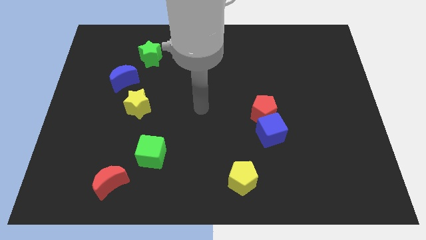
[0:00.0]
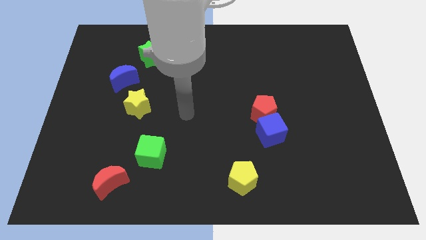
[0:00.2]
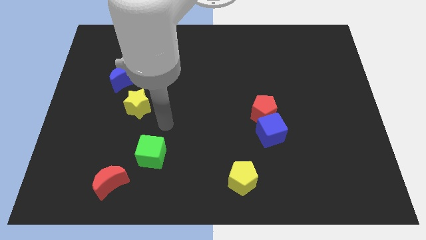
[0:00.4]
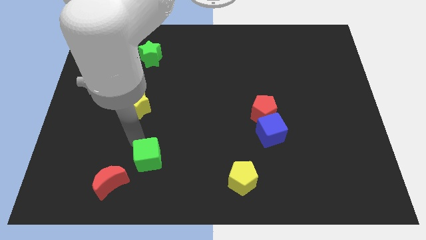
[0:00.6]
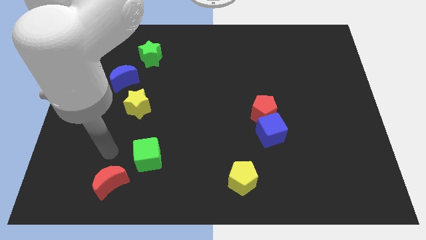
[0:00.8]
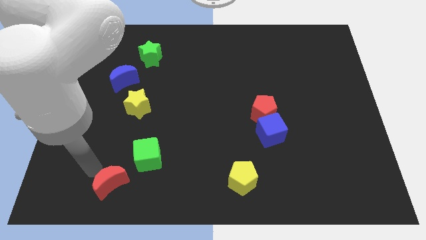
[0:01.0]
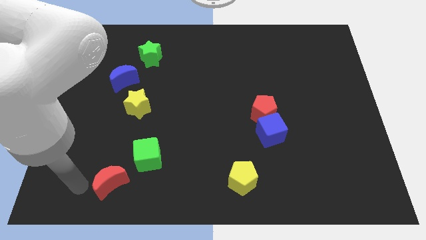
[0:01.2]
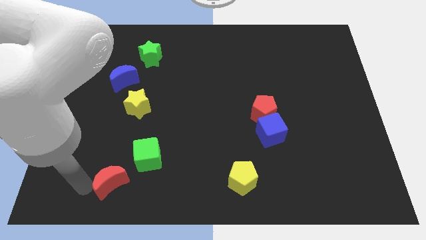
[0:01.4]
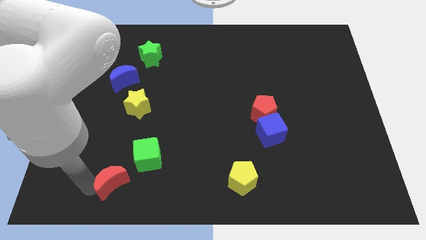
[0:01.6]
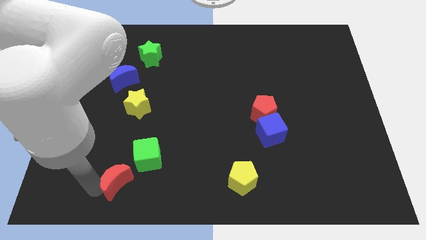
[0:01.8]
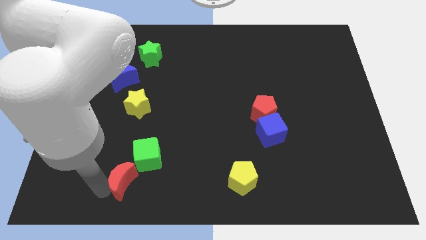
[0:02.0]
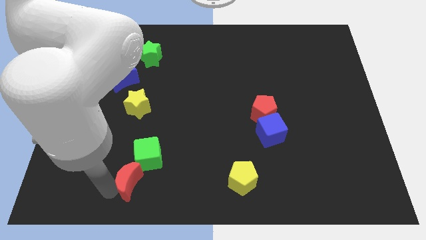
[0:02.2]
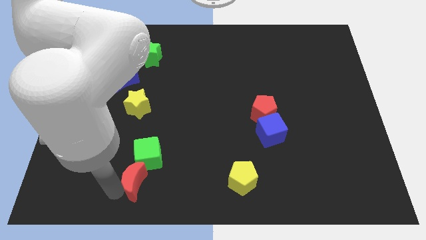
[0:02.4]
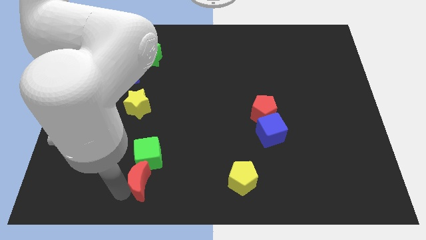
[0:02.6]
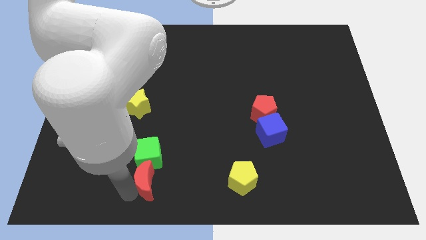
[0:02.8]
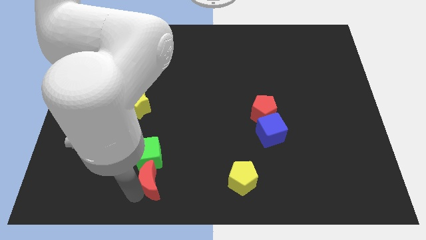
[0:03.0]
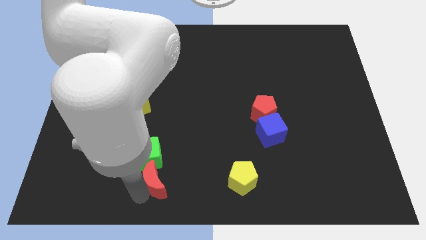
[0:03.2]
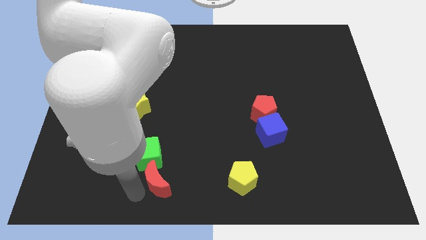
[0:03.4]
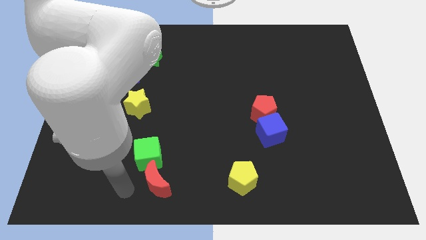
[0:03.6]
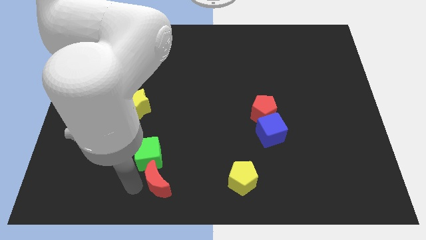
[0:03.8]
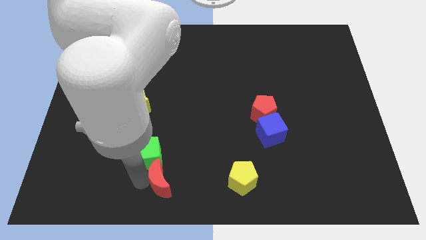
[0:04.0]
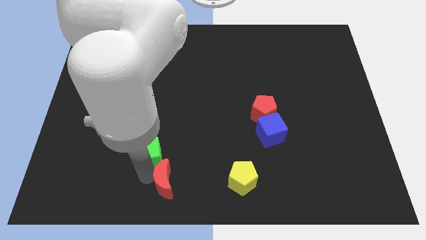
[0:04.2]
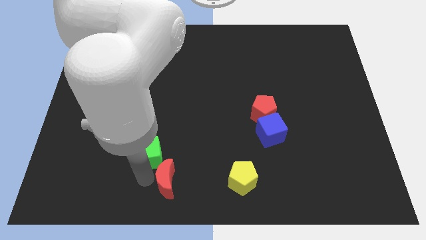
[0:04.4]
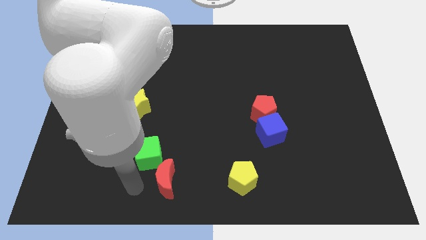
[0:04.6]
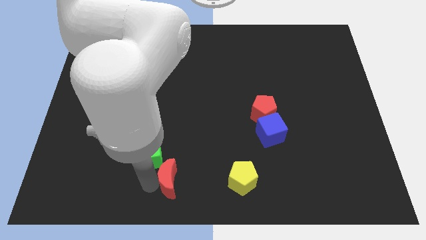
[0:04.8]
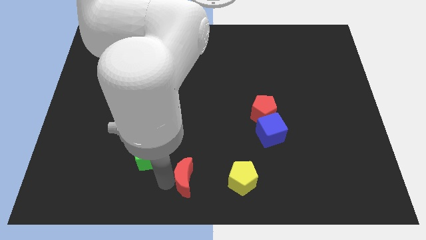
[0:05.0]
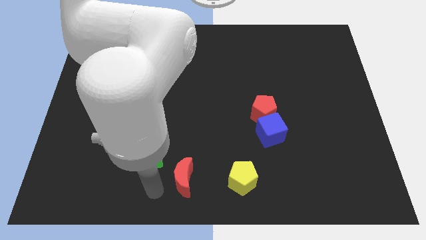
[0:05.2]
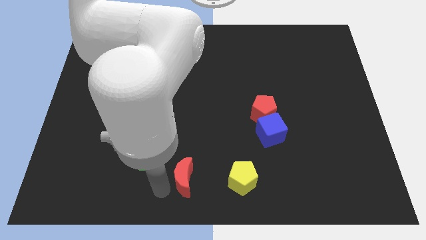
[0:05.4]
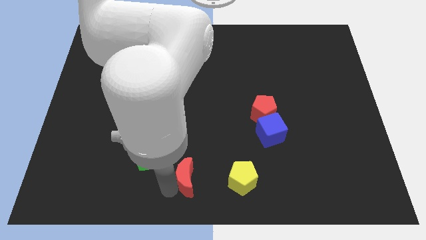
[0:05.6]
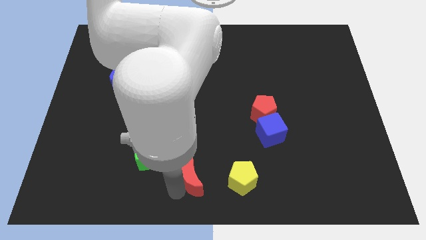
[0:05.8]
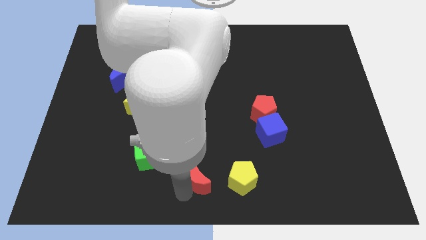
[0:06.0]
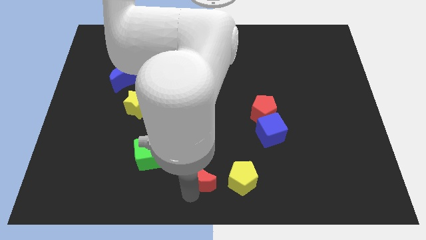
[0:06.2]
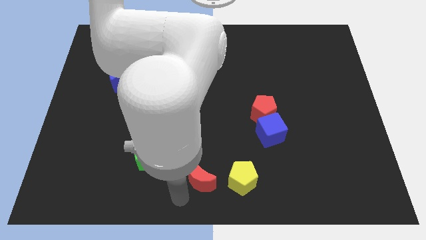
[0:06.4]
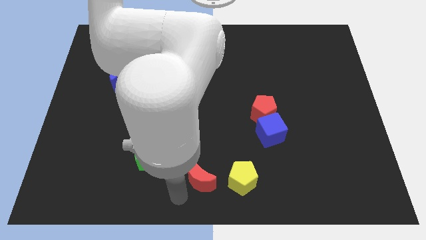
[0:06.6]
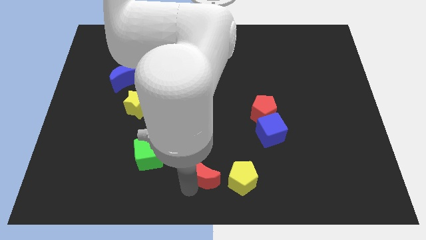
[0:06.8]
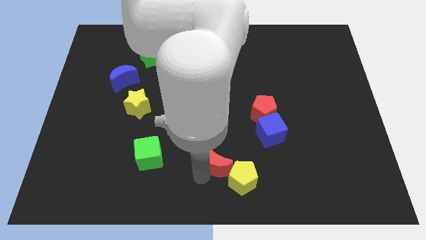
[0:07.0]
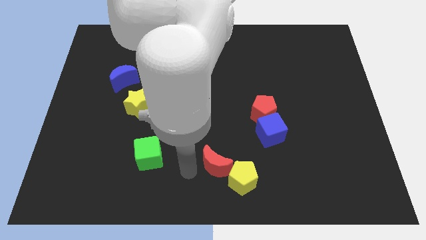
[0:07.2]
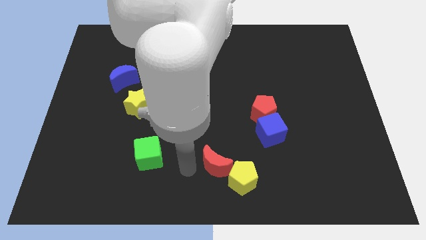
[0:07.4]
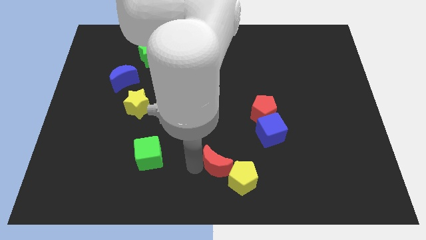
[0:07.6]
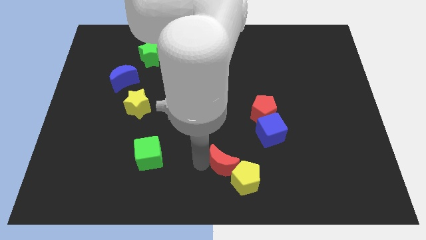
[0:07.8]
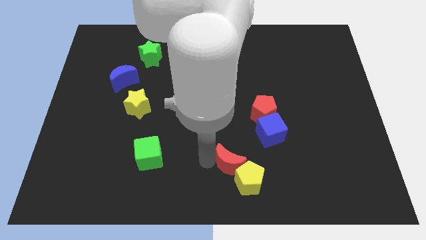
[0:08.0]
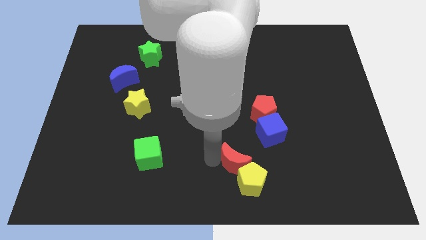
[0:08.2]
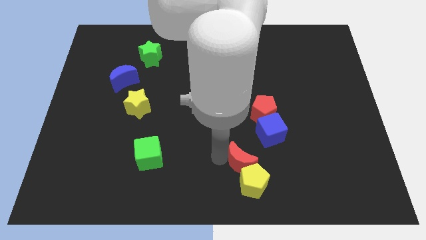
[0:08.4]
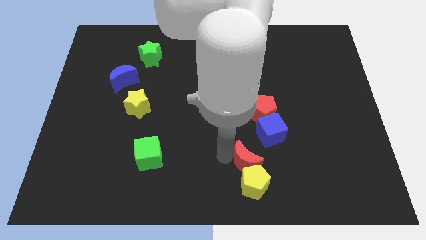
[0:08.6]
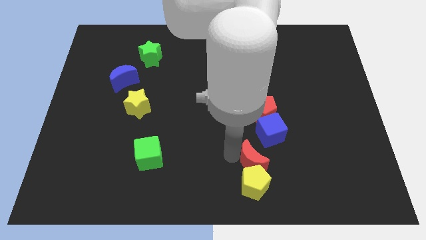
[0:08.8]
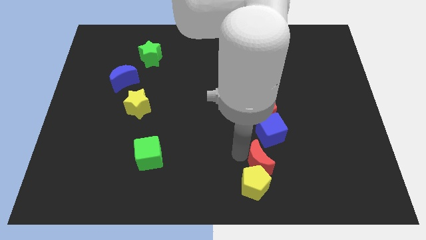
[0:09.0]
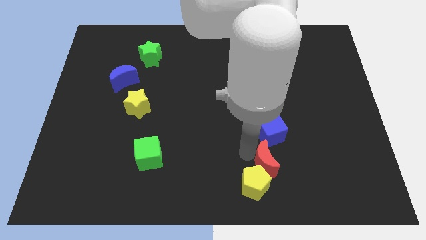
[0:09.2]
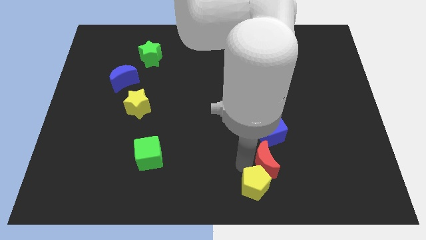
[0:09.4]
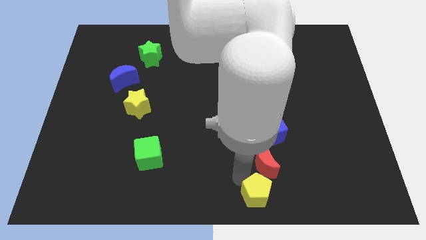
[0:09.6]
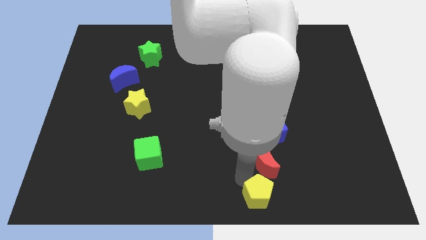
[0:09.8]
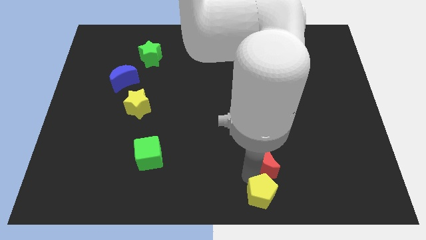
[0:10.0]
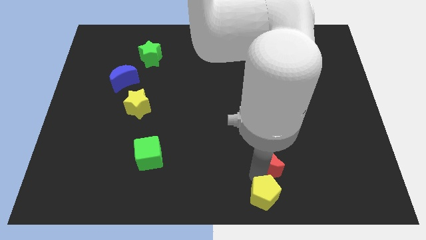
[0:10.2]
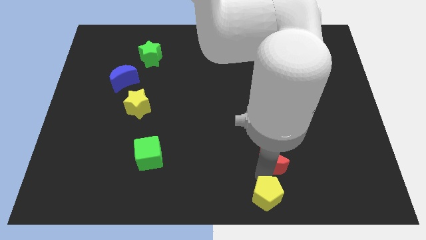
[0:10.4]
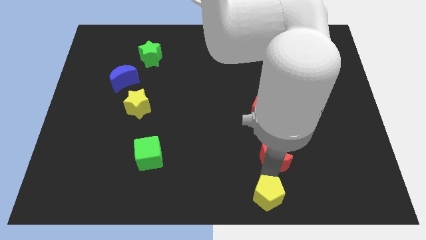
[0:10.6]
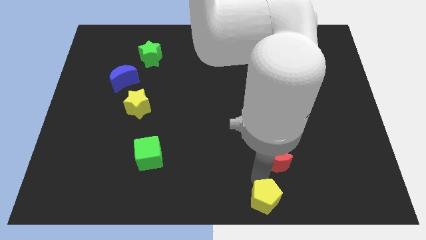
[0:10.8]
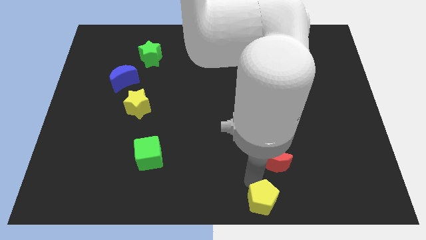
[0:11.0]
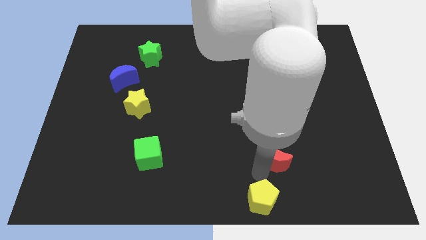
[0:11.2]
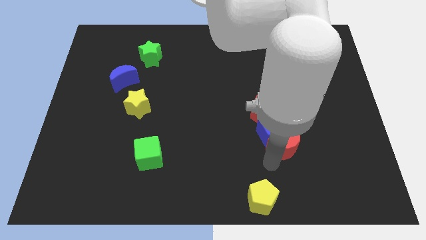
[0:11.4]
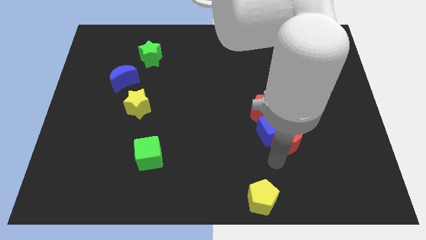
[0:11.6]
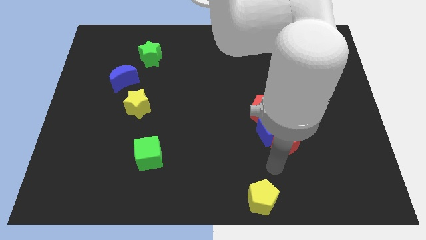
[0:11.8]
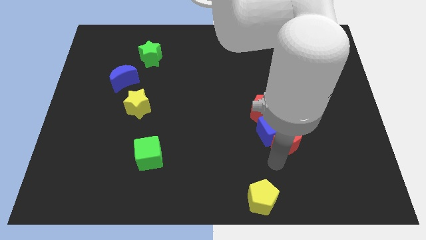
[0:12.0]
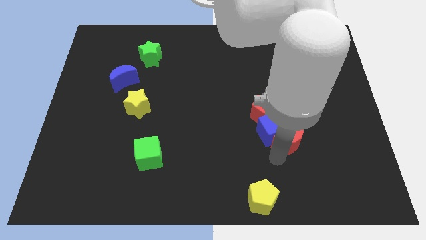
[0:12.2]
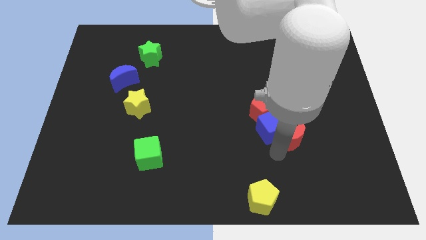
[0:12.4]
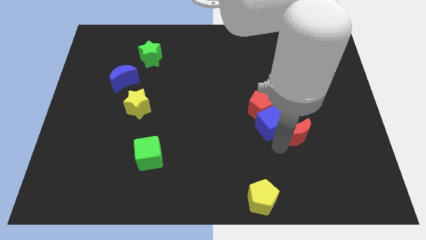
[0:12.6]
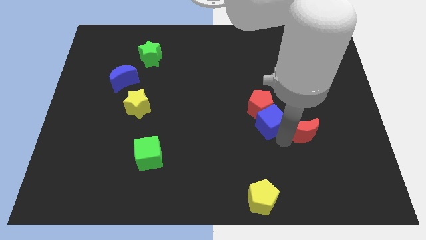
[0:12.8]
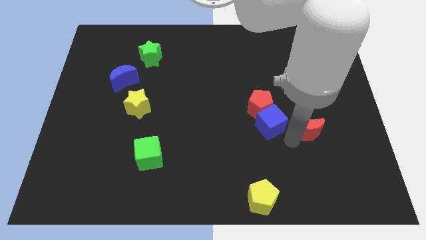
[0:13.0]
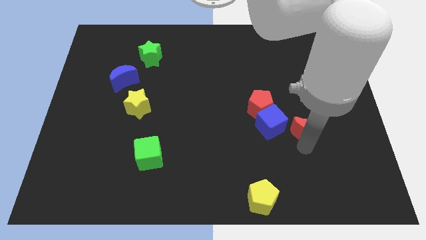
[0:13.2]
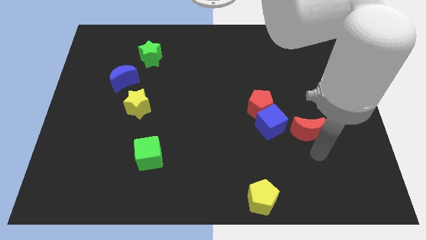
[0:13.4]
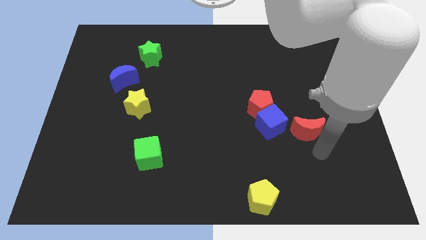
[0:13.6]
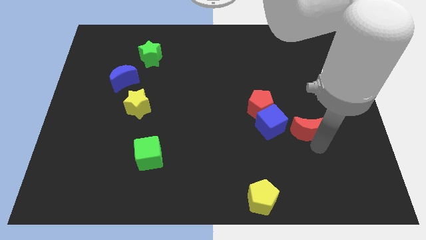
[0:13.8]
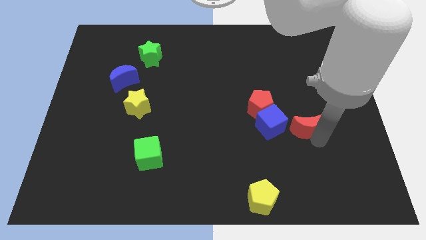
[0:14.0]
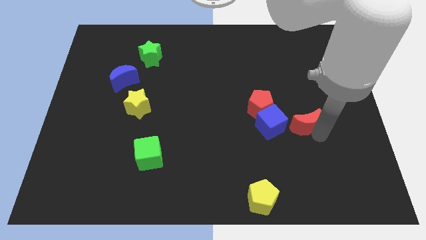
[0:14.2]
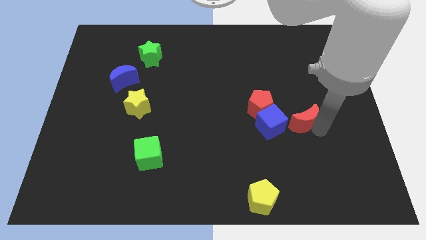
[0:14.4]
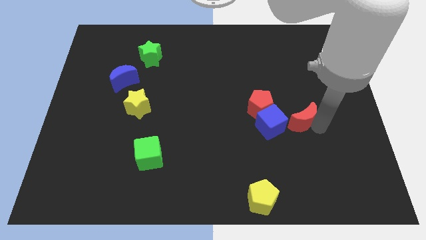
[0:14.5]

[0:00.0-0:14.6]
push the red moon diagonally up and to the right of the blue cube
